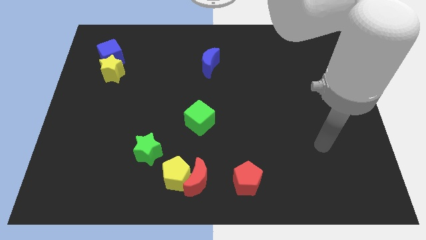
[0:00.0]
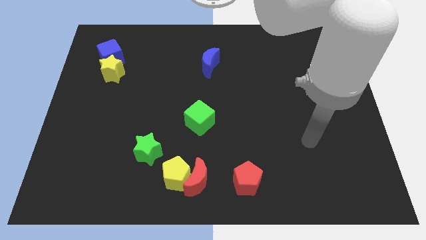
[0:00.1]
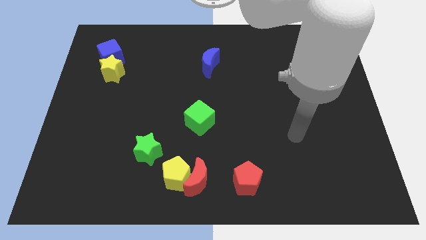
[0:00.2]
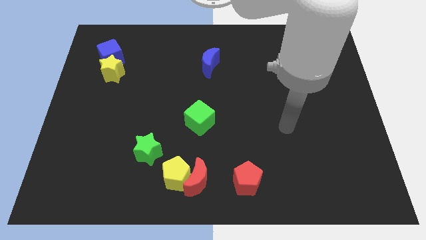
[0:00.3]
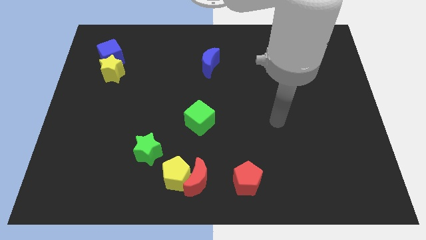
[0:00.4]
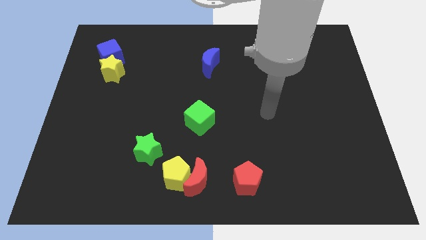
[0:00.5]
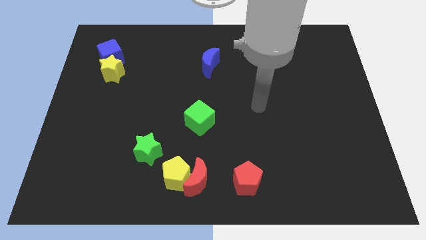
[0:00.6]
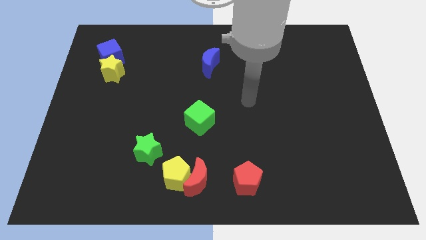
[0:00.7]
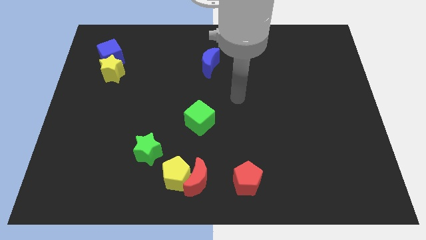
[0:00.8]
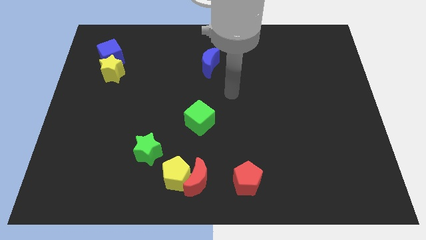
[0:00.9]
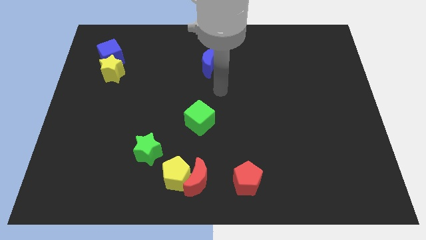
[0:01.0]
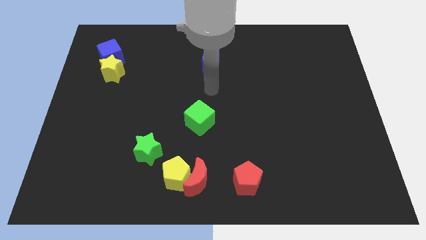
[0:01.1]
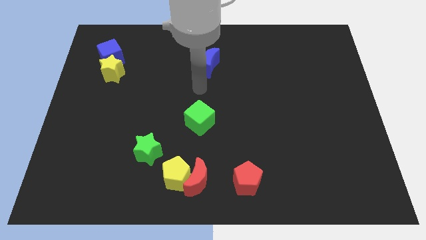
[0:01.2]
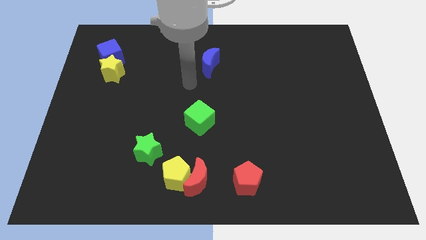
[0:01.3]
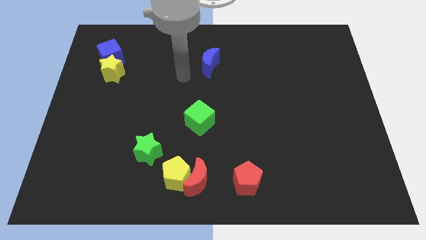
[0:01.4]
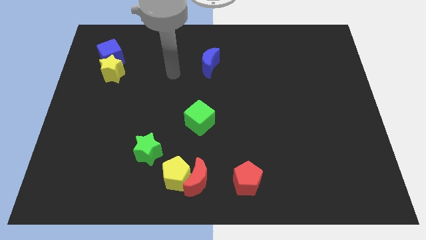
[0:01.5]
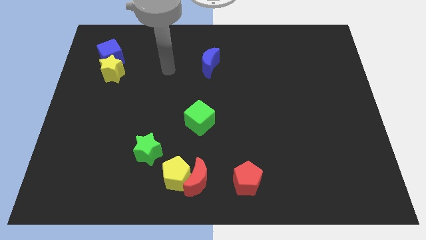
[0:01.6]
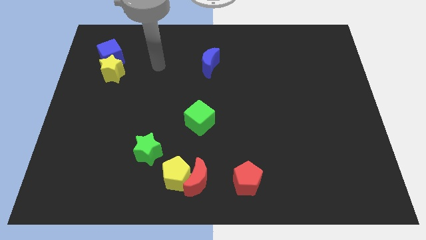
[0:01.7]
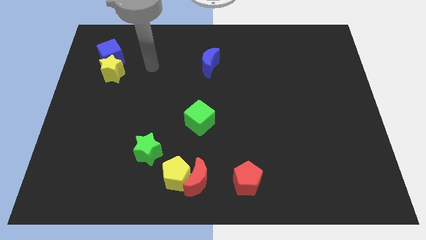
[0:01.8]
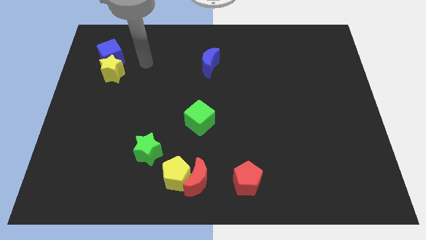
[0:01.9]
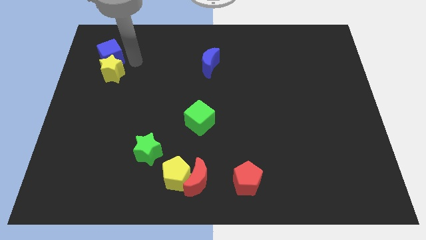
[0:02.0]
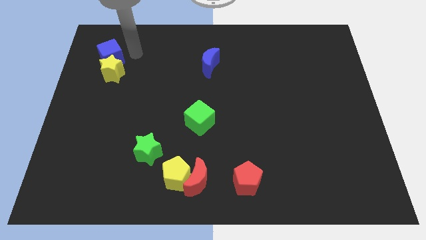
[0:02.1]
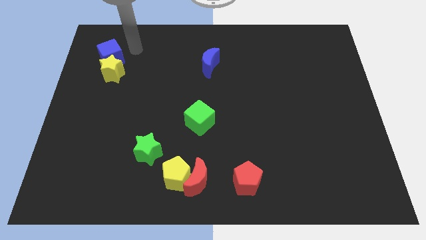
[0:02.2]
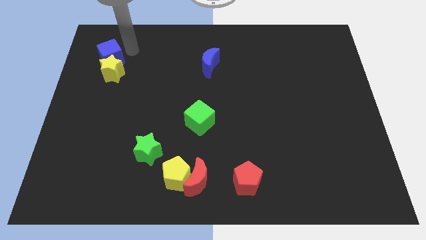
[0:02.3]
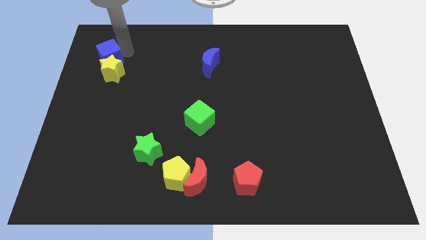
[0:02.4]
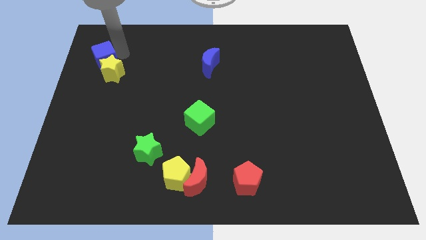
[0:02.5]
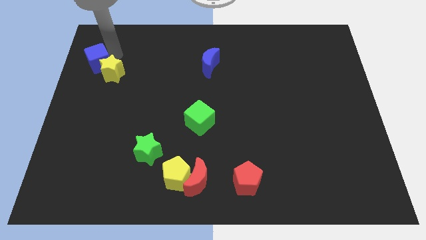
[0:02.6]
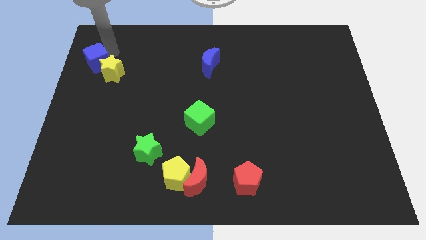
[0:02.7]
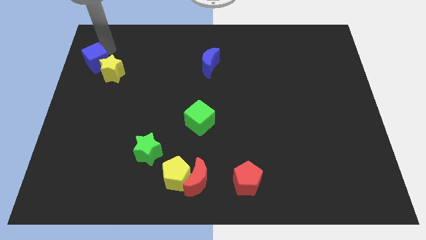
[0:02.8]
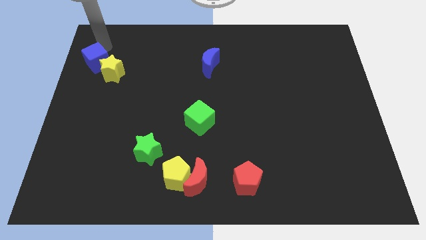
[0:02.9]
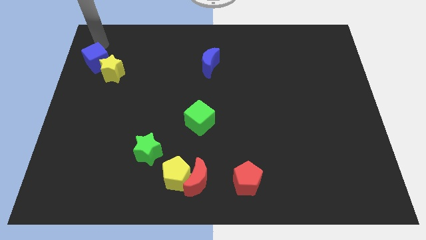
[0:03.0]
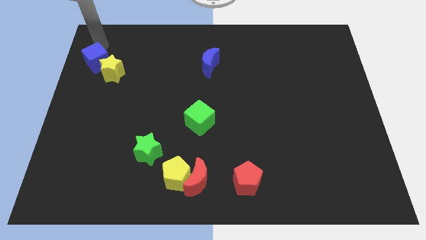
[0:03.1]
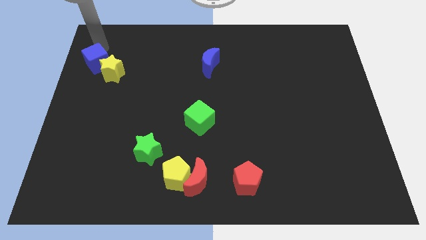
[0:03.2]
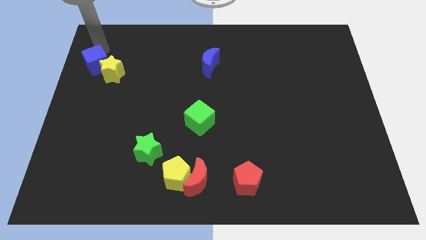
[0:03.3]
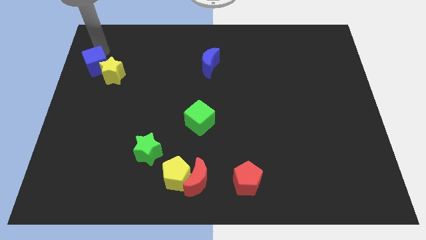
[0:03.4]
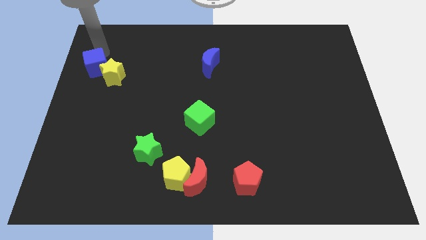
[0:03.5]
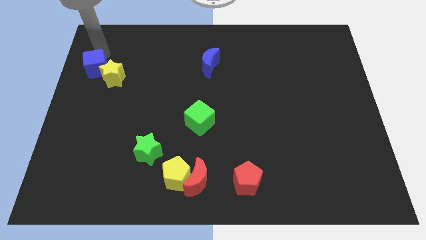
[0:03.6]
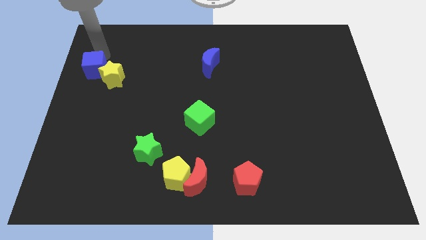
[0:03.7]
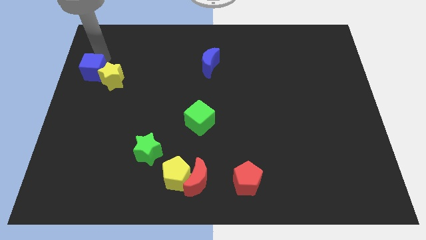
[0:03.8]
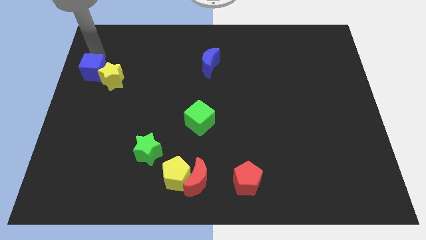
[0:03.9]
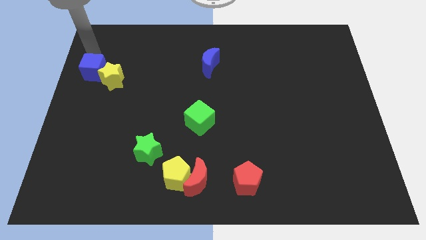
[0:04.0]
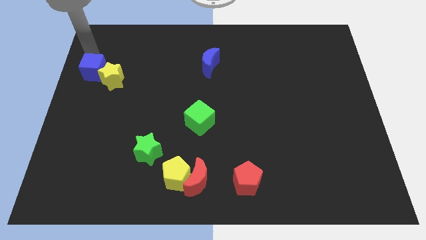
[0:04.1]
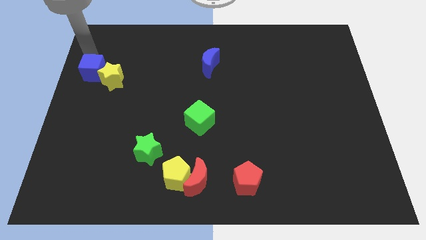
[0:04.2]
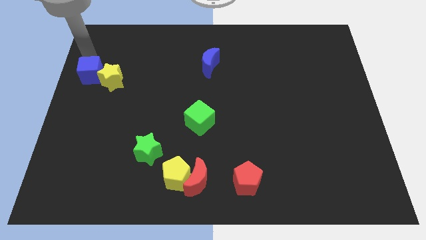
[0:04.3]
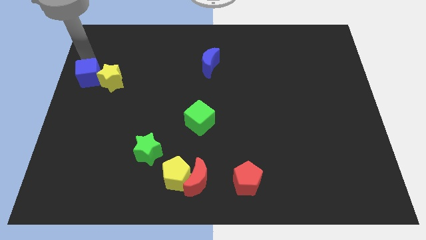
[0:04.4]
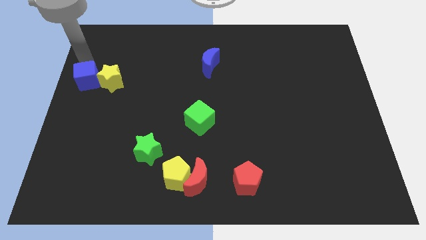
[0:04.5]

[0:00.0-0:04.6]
slide the blue cube a little bit downwards

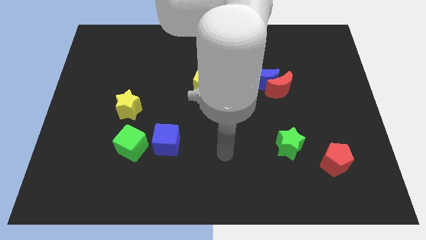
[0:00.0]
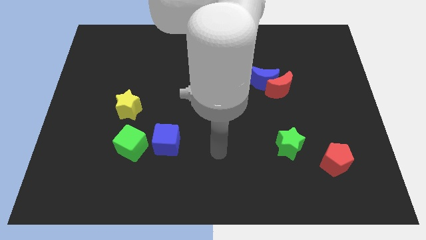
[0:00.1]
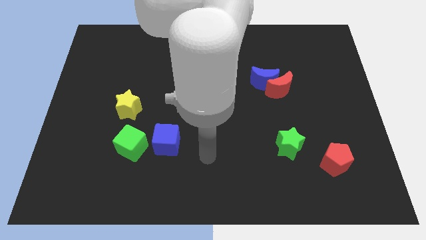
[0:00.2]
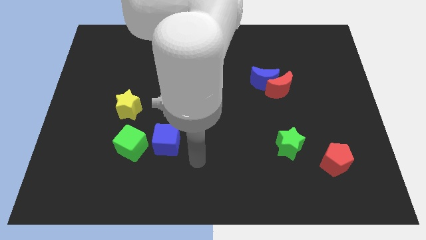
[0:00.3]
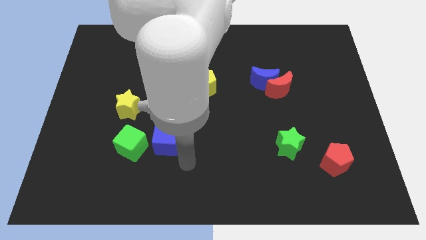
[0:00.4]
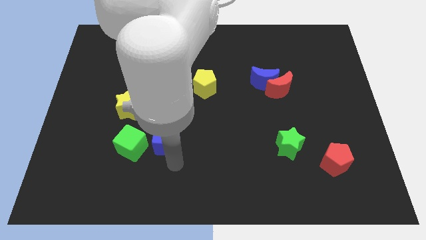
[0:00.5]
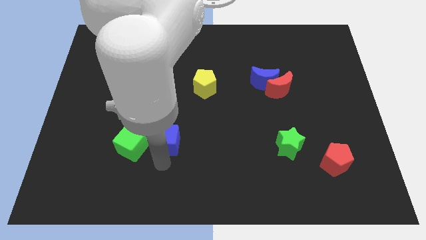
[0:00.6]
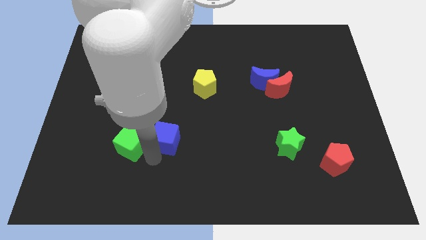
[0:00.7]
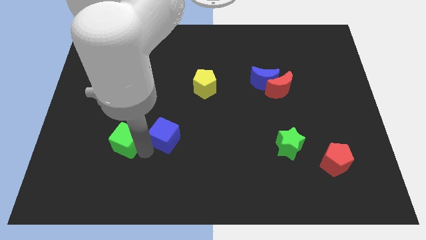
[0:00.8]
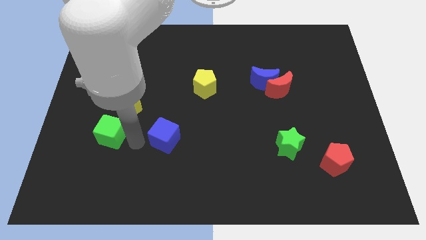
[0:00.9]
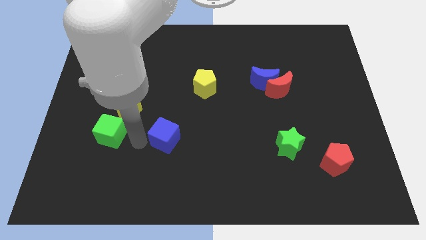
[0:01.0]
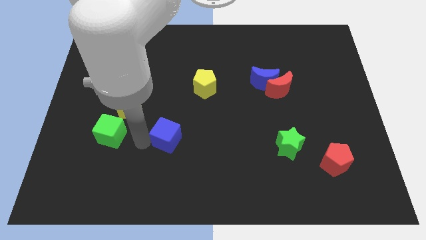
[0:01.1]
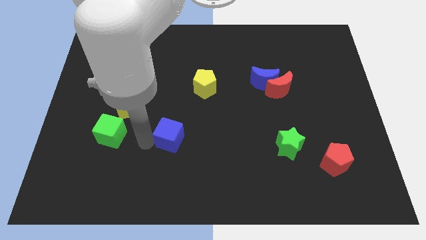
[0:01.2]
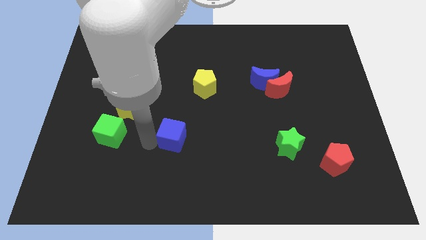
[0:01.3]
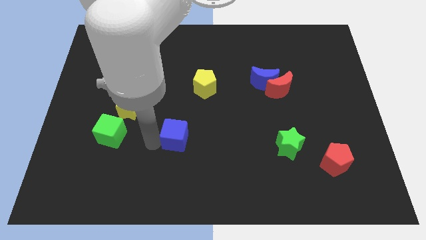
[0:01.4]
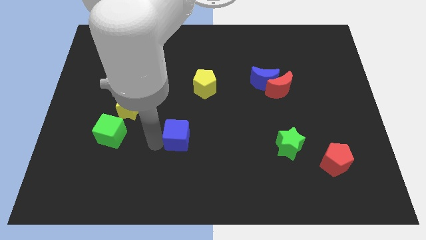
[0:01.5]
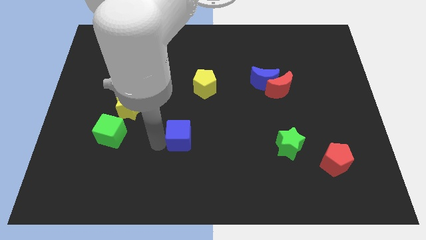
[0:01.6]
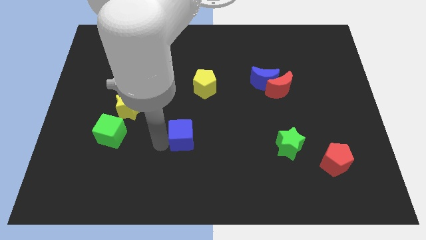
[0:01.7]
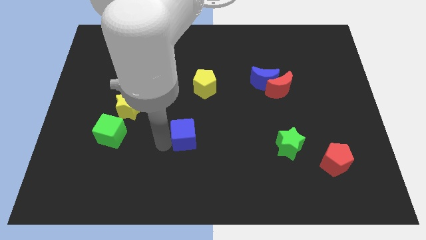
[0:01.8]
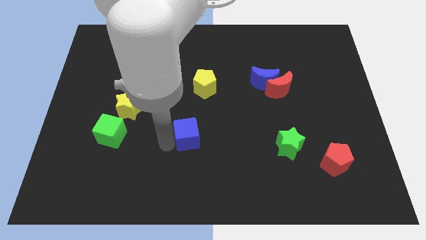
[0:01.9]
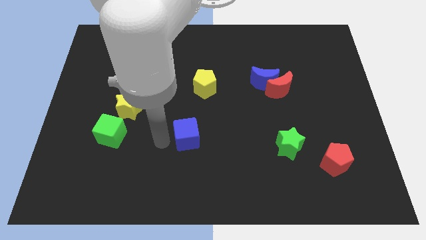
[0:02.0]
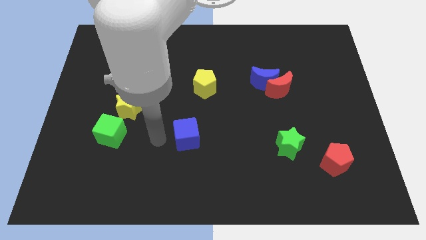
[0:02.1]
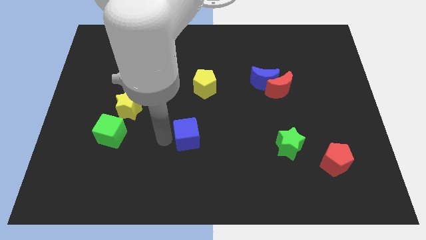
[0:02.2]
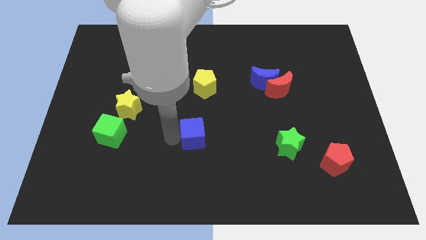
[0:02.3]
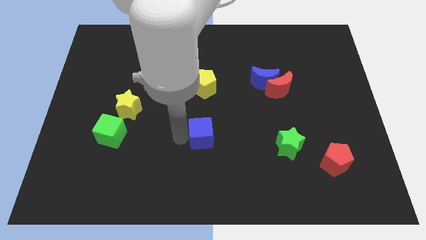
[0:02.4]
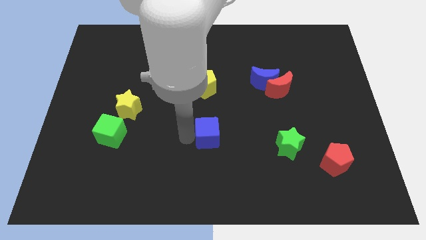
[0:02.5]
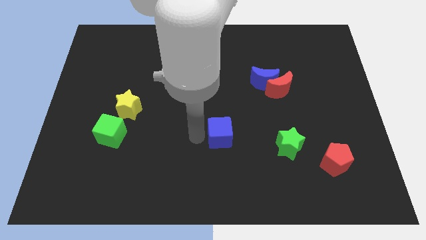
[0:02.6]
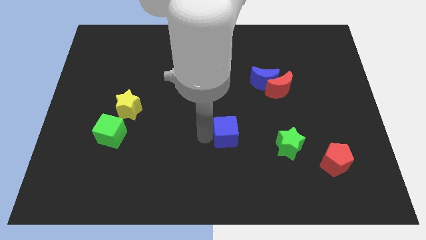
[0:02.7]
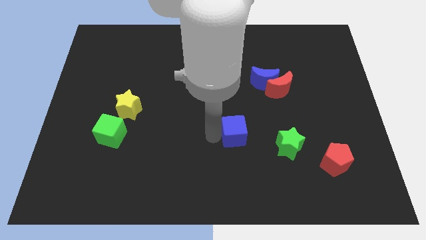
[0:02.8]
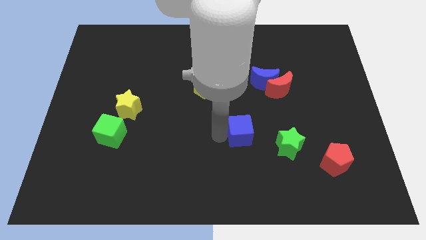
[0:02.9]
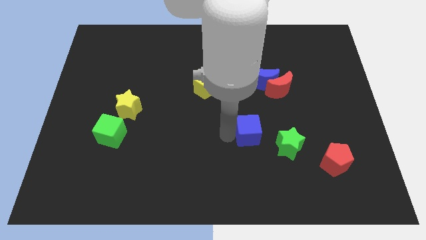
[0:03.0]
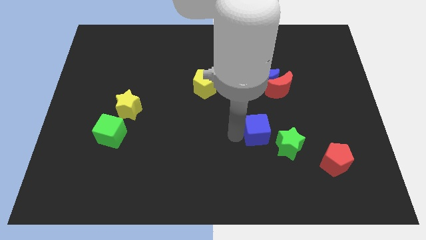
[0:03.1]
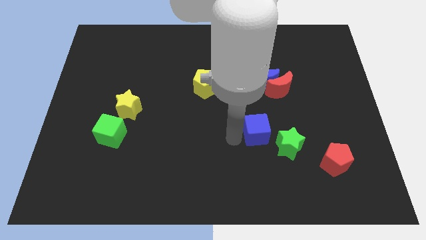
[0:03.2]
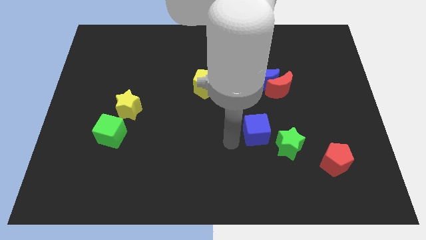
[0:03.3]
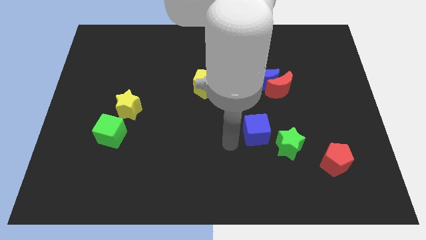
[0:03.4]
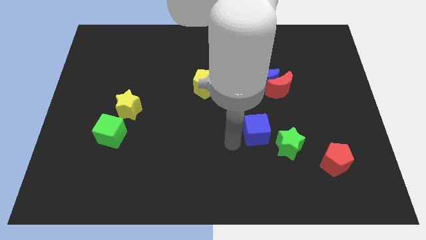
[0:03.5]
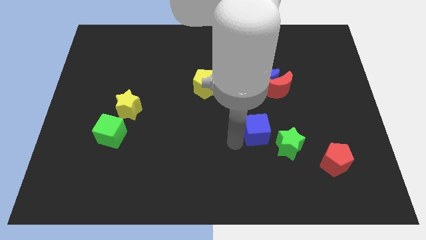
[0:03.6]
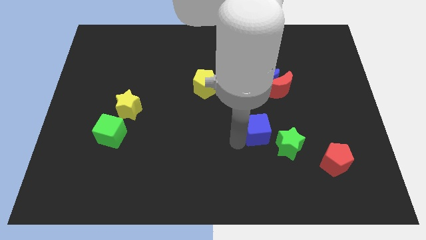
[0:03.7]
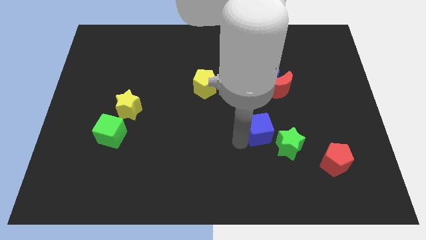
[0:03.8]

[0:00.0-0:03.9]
move the blue cube to the right
